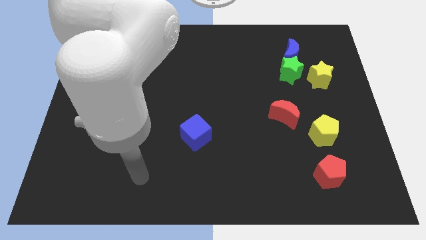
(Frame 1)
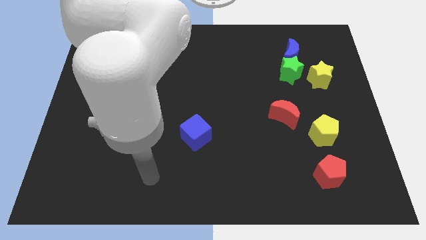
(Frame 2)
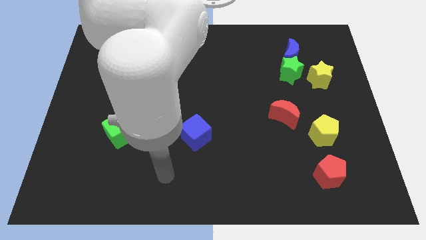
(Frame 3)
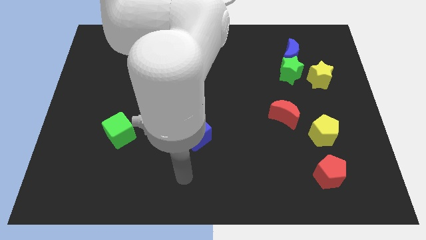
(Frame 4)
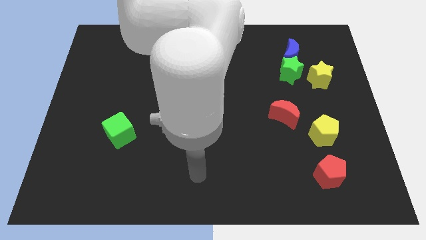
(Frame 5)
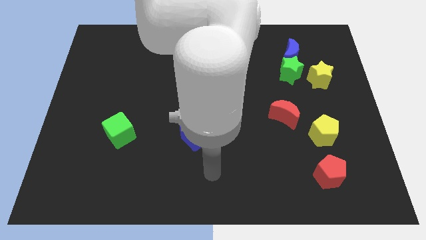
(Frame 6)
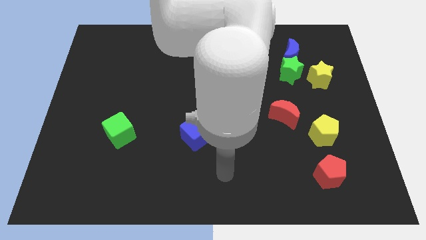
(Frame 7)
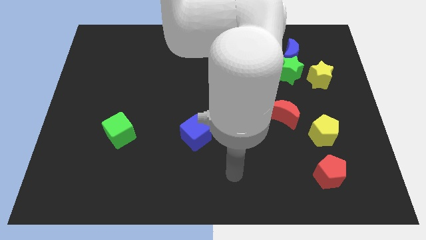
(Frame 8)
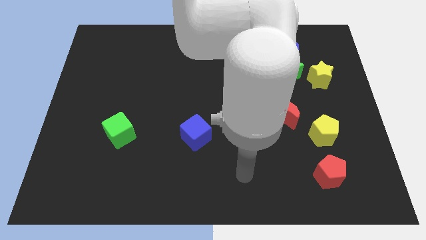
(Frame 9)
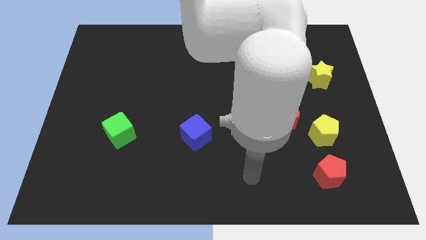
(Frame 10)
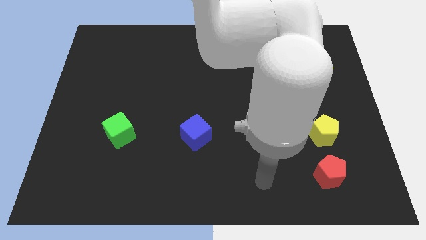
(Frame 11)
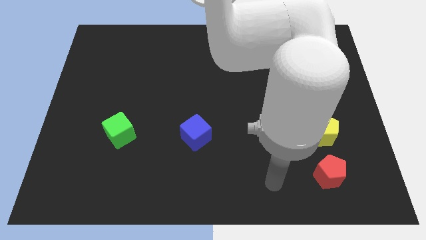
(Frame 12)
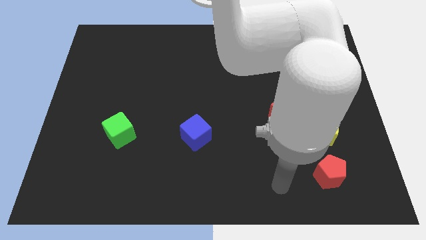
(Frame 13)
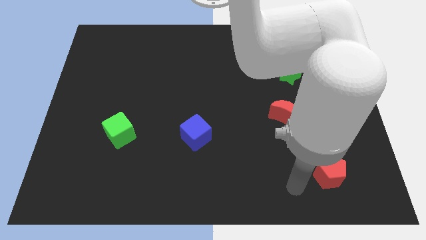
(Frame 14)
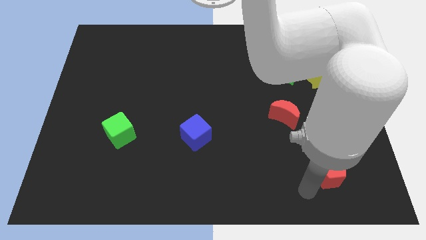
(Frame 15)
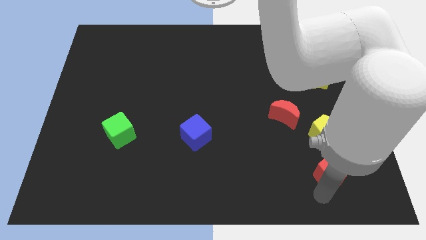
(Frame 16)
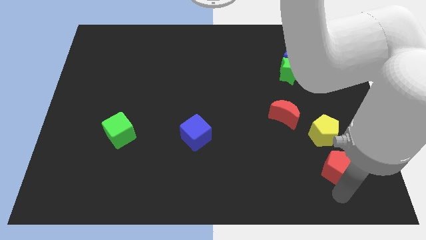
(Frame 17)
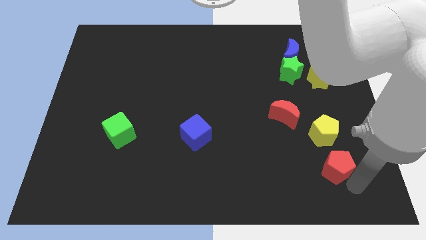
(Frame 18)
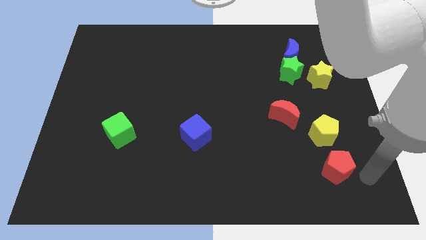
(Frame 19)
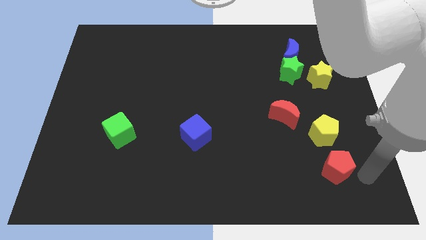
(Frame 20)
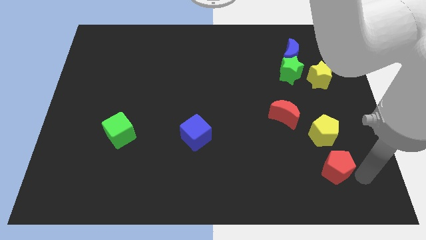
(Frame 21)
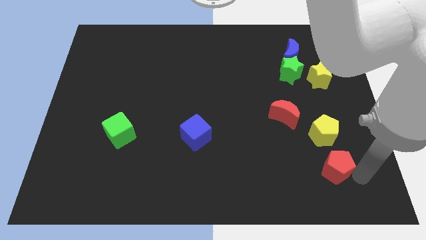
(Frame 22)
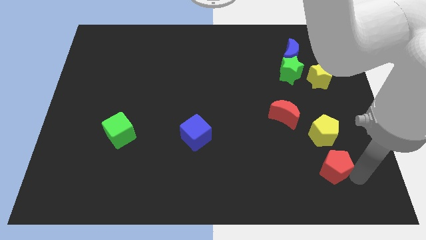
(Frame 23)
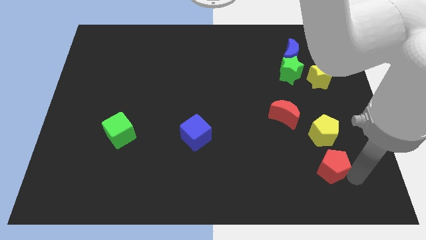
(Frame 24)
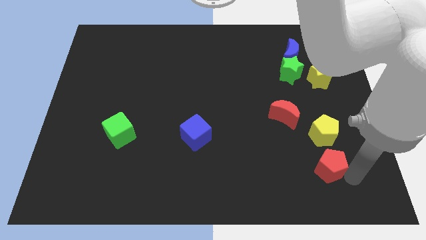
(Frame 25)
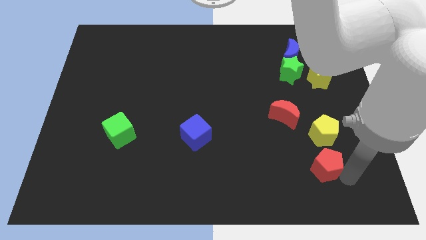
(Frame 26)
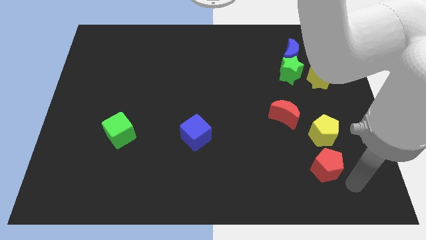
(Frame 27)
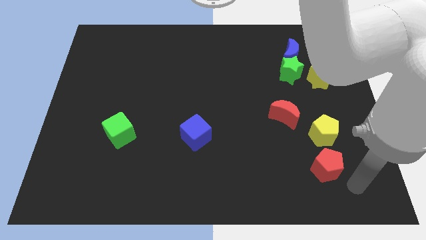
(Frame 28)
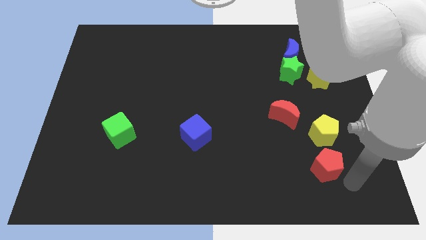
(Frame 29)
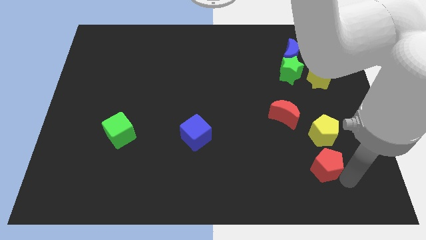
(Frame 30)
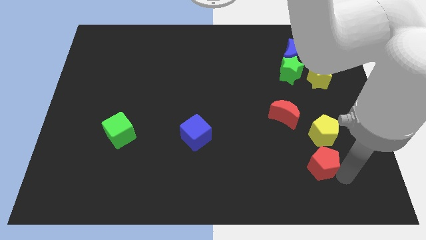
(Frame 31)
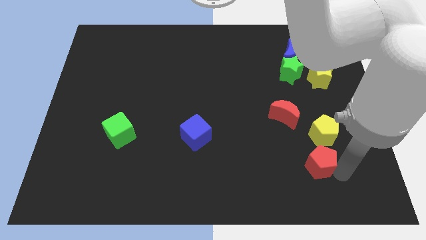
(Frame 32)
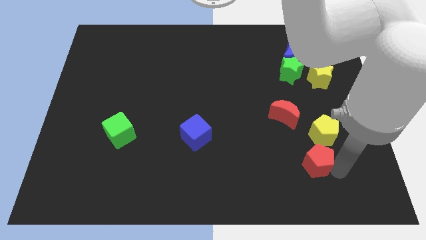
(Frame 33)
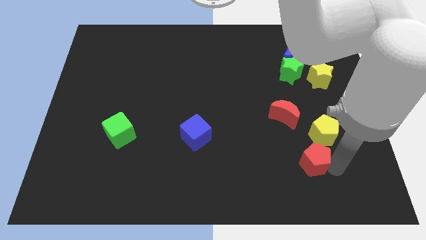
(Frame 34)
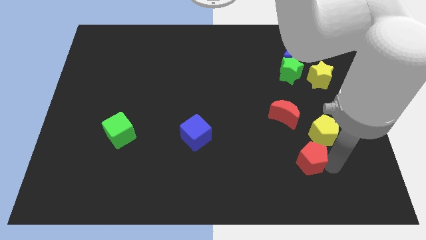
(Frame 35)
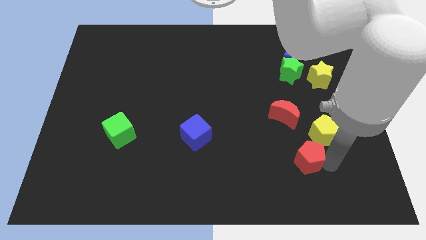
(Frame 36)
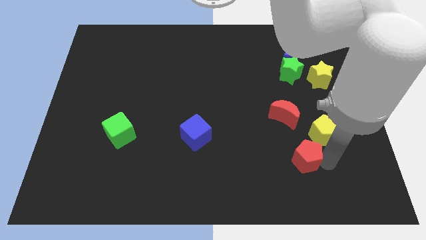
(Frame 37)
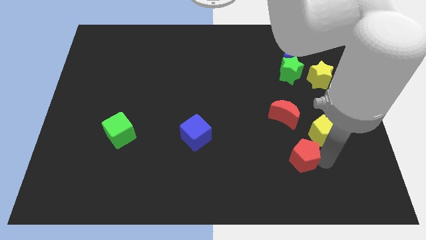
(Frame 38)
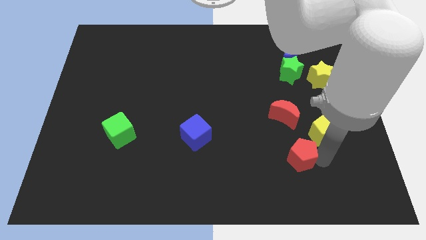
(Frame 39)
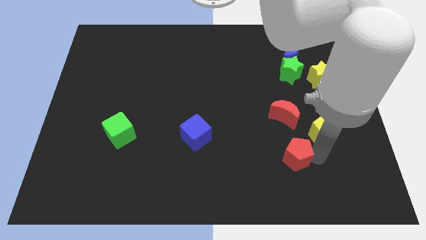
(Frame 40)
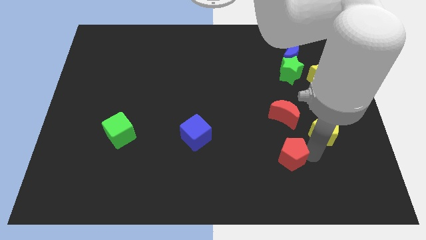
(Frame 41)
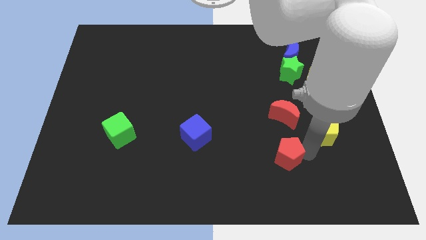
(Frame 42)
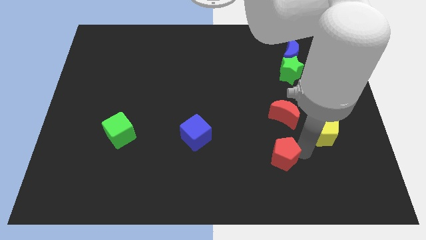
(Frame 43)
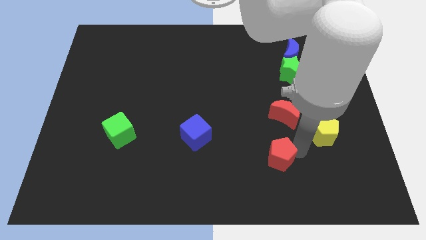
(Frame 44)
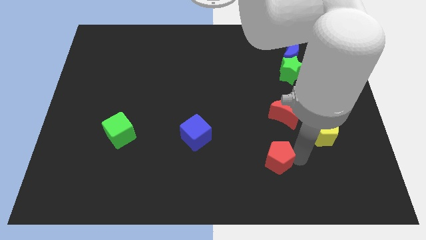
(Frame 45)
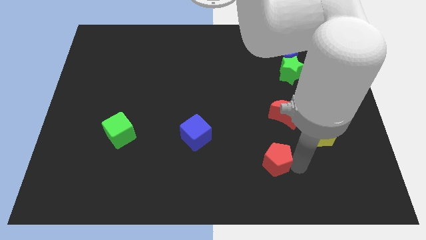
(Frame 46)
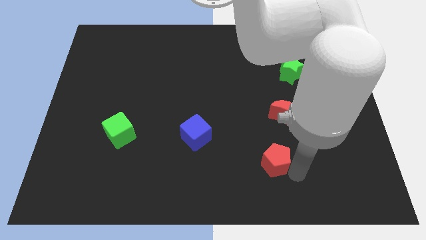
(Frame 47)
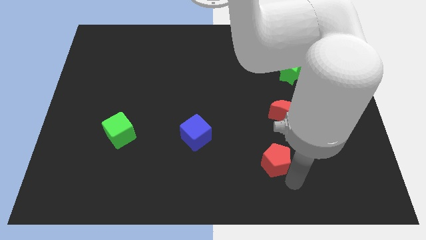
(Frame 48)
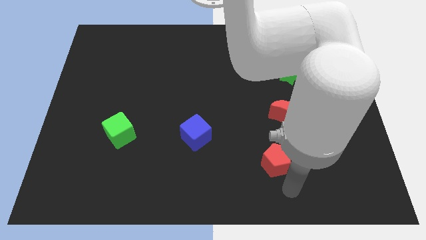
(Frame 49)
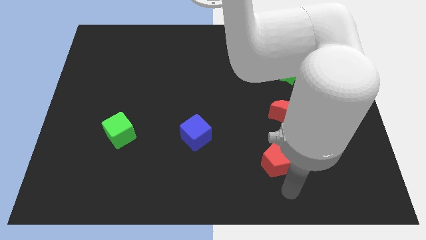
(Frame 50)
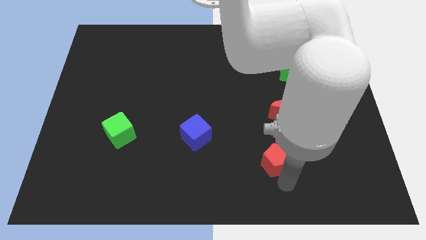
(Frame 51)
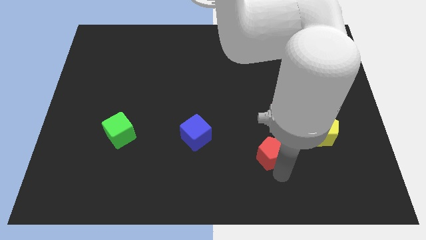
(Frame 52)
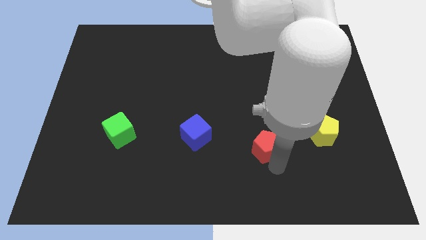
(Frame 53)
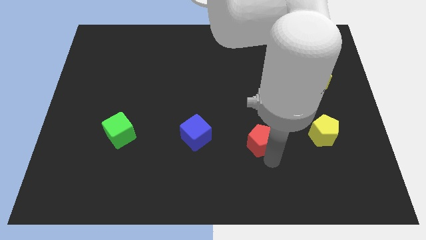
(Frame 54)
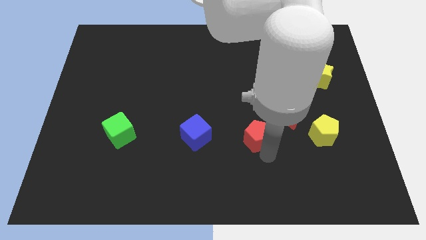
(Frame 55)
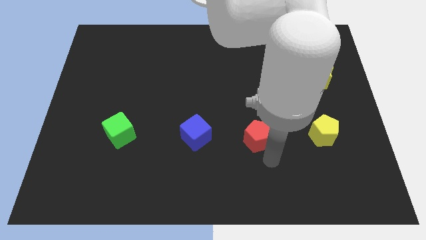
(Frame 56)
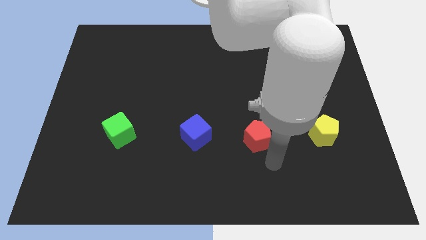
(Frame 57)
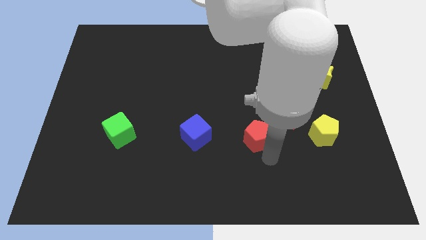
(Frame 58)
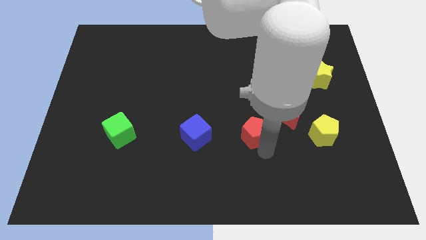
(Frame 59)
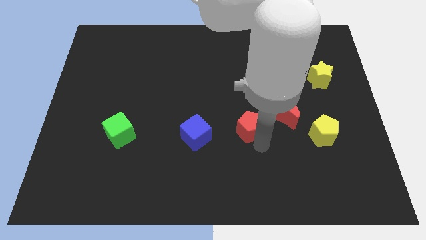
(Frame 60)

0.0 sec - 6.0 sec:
put the red pentagon to the middle of the board

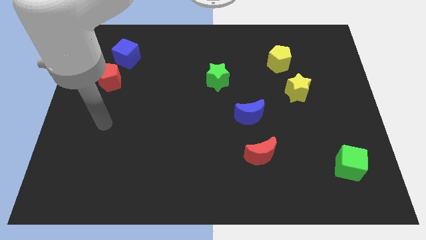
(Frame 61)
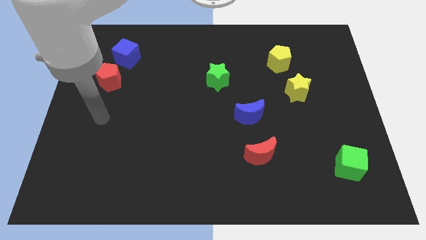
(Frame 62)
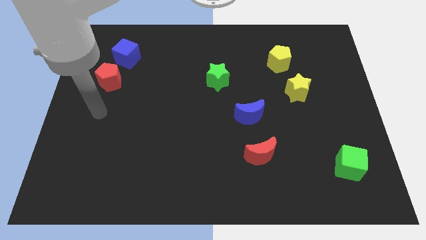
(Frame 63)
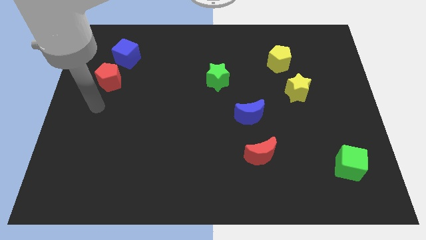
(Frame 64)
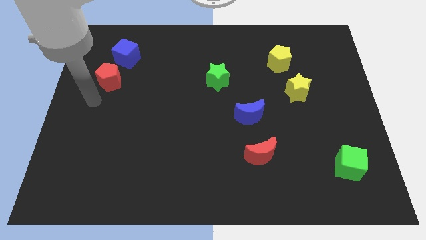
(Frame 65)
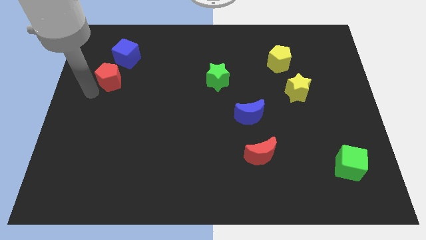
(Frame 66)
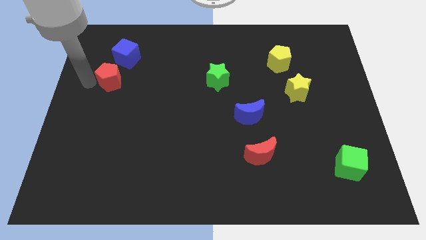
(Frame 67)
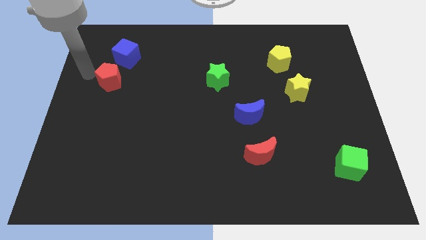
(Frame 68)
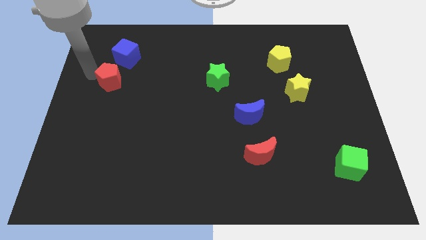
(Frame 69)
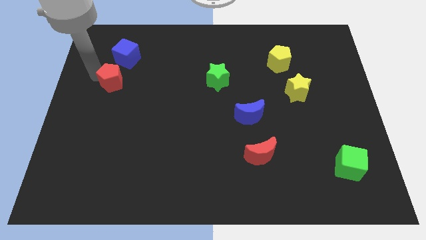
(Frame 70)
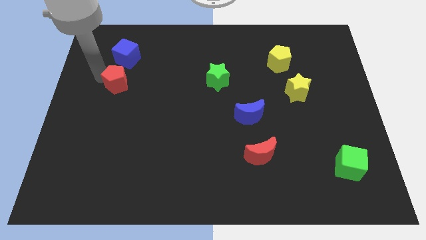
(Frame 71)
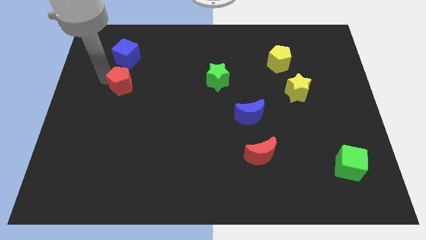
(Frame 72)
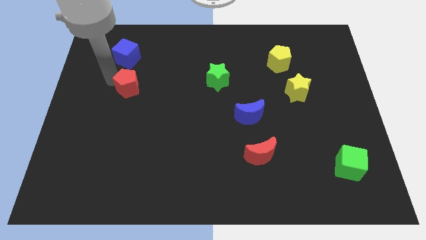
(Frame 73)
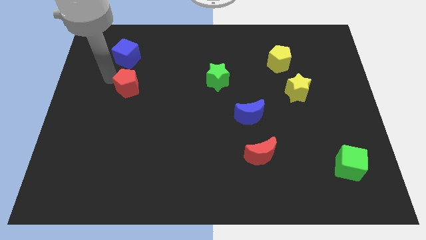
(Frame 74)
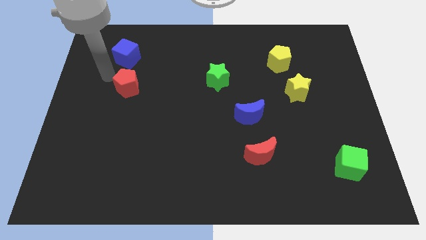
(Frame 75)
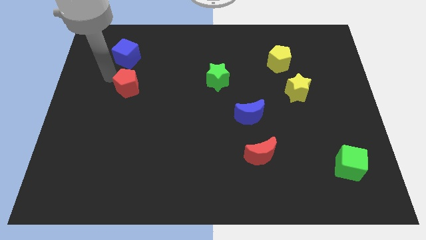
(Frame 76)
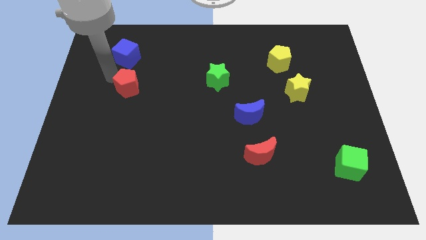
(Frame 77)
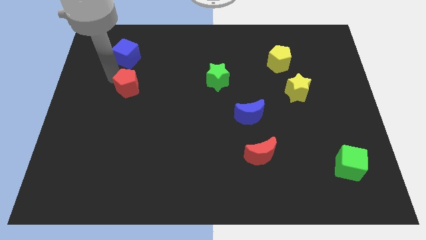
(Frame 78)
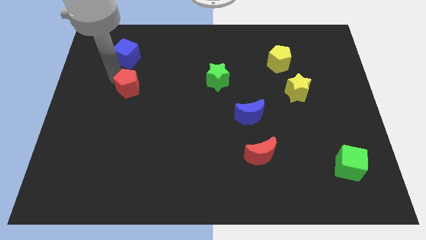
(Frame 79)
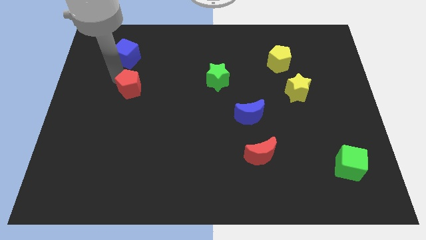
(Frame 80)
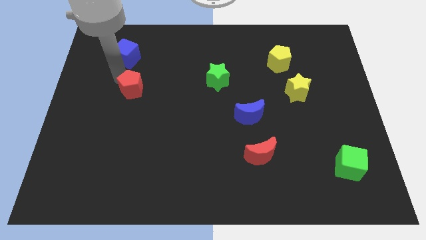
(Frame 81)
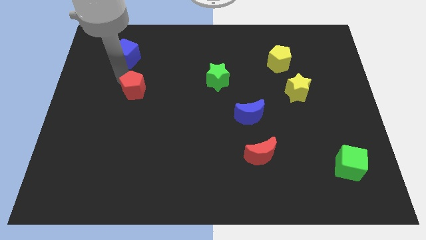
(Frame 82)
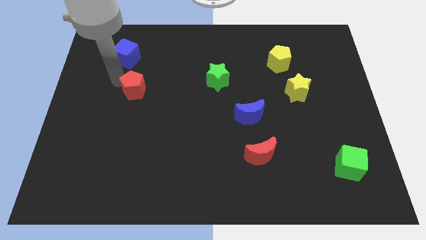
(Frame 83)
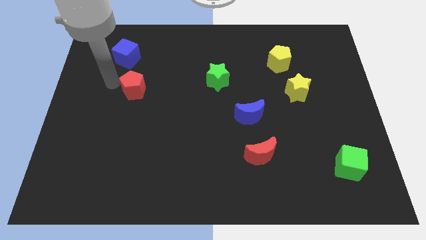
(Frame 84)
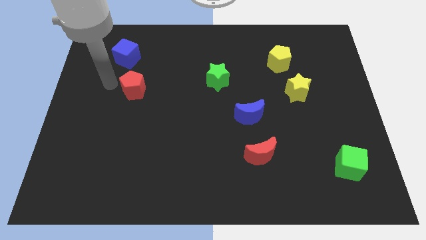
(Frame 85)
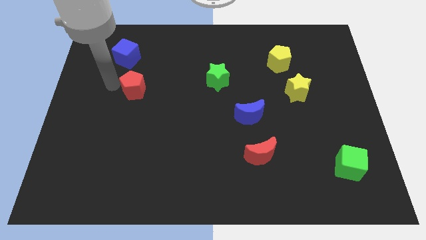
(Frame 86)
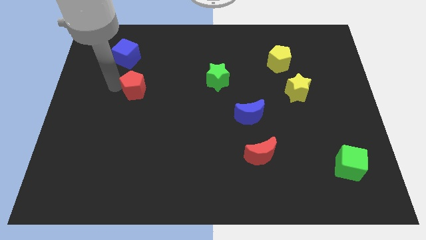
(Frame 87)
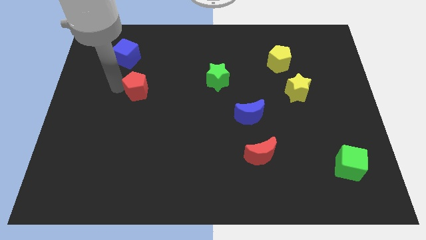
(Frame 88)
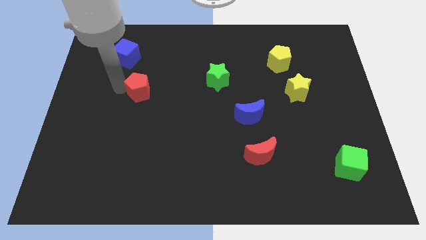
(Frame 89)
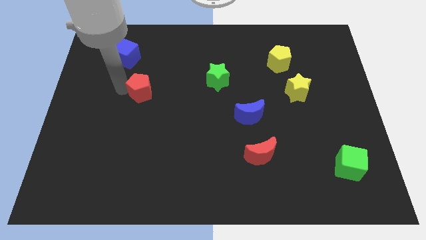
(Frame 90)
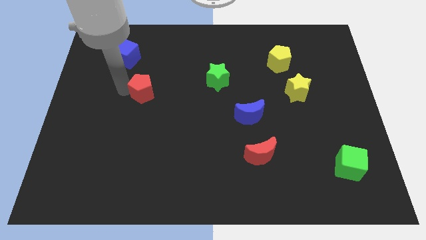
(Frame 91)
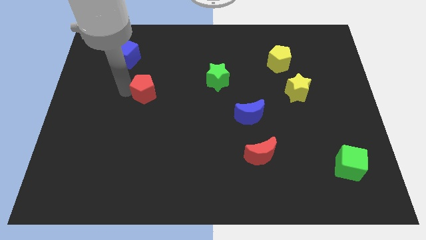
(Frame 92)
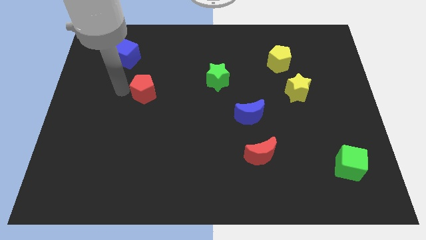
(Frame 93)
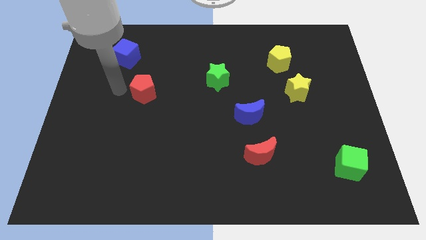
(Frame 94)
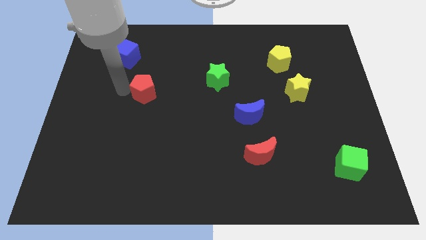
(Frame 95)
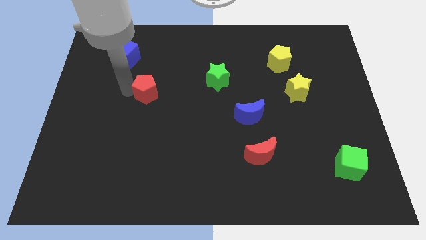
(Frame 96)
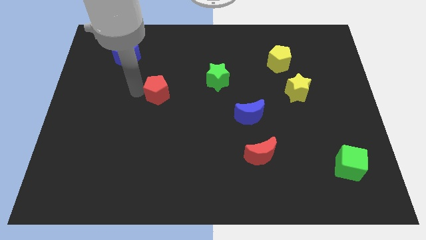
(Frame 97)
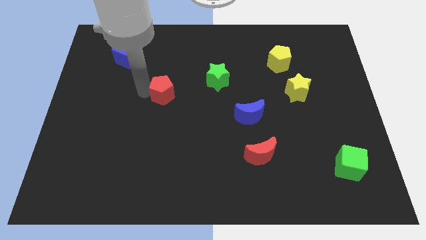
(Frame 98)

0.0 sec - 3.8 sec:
move the red pentagon to the middle of the board
